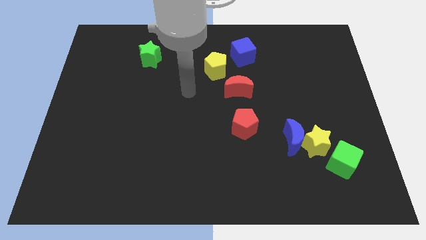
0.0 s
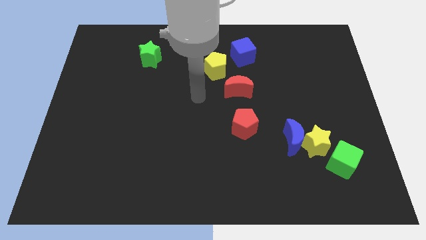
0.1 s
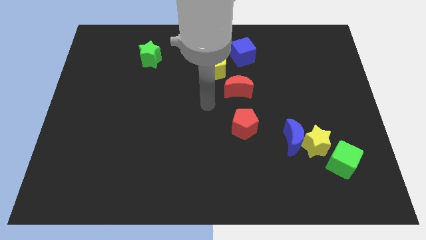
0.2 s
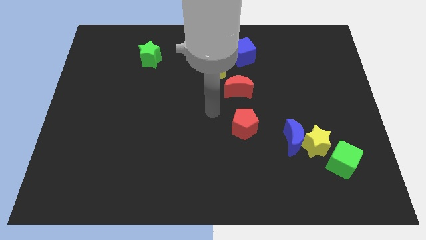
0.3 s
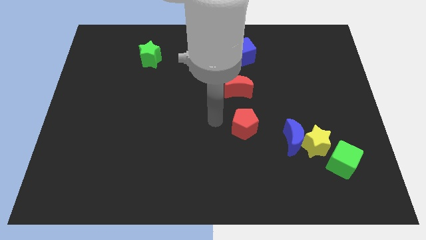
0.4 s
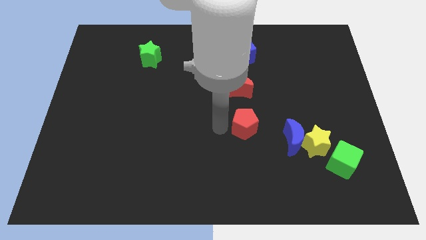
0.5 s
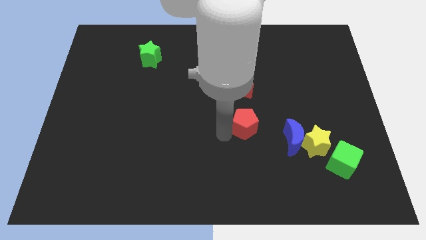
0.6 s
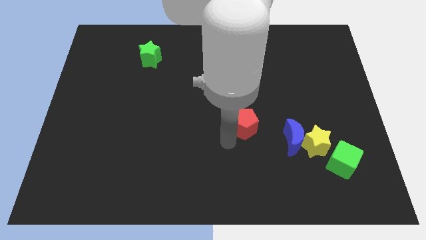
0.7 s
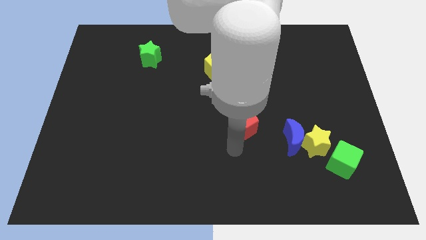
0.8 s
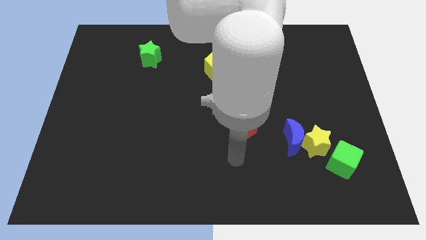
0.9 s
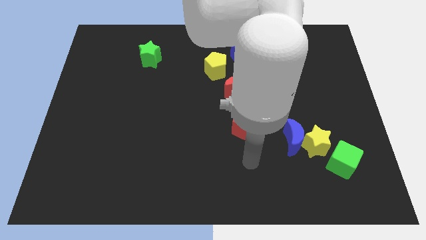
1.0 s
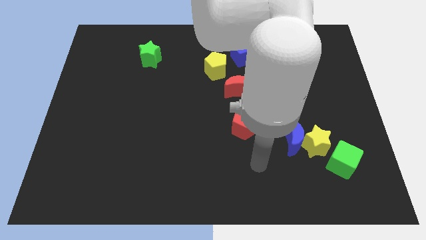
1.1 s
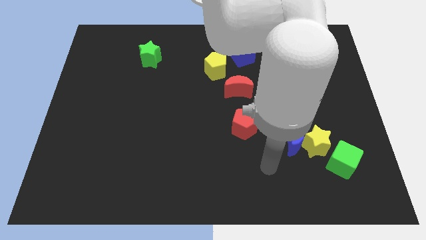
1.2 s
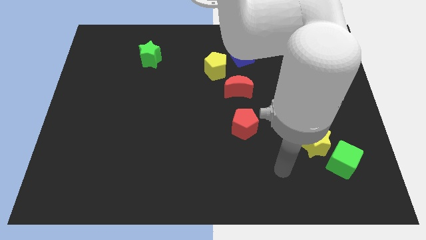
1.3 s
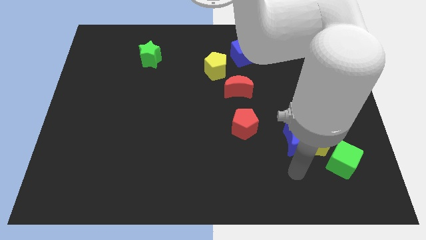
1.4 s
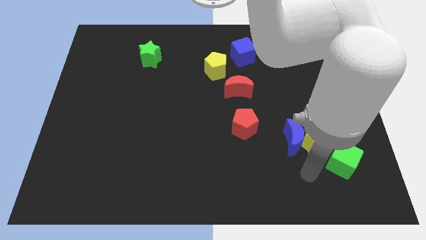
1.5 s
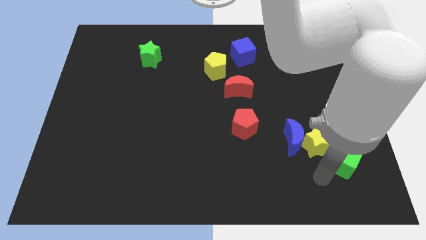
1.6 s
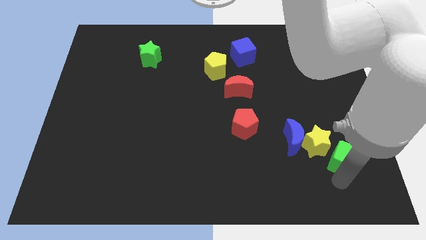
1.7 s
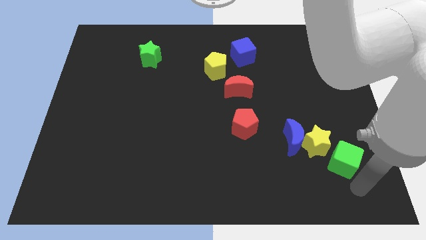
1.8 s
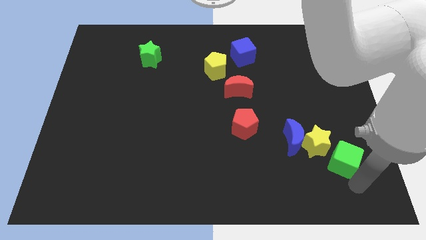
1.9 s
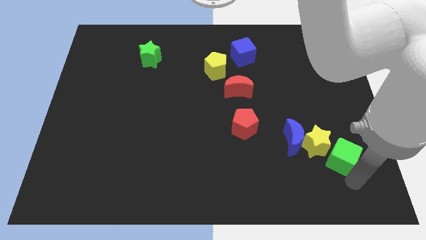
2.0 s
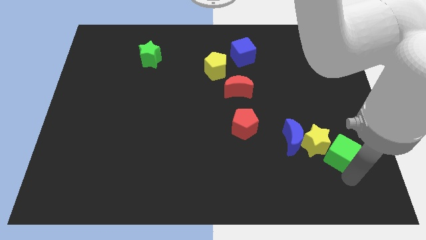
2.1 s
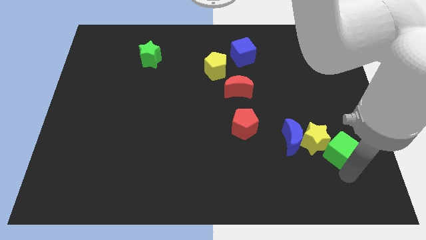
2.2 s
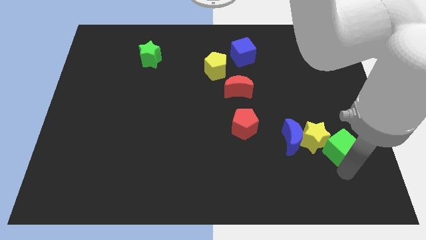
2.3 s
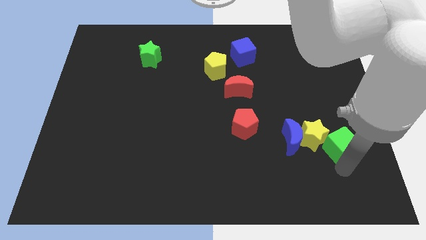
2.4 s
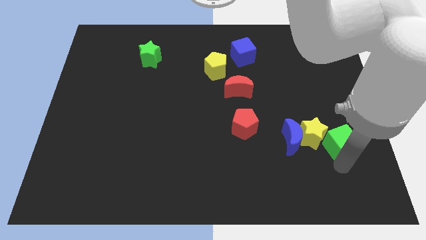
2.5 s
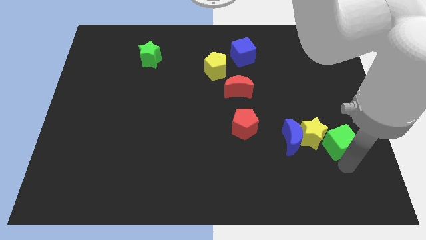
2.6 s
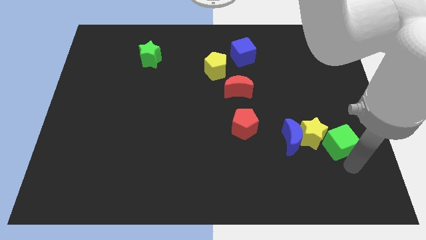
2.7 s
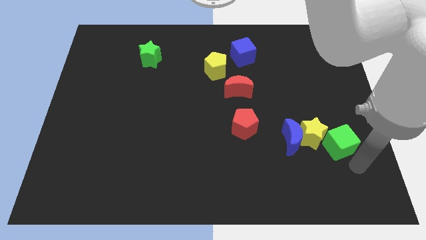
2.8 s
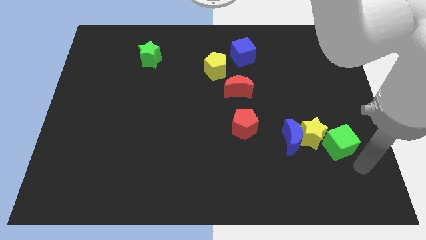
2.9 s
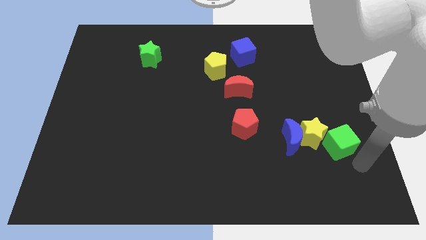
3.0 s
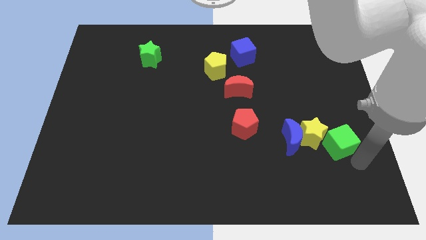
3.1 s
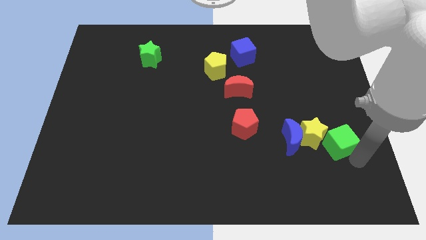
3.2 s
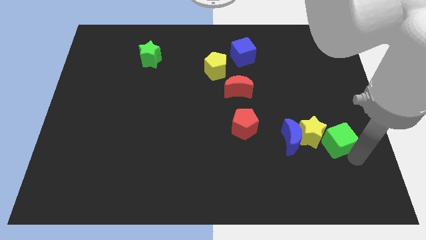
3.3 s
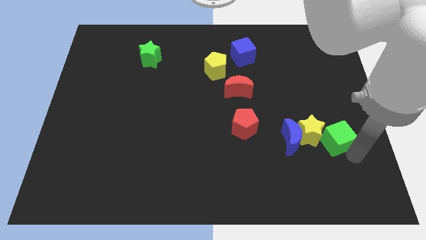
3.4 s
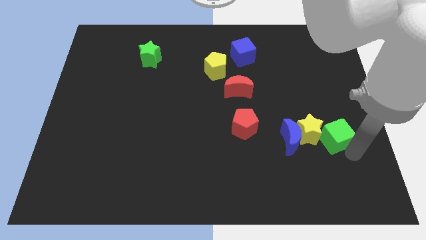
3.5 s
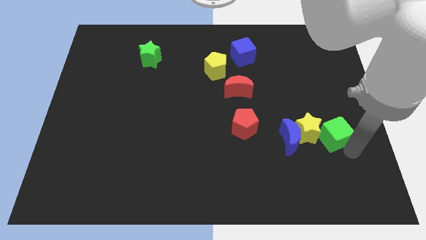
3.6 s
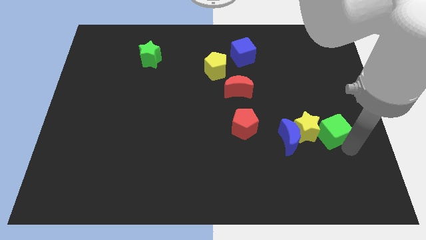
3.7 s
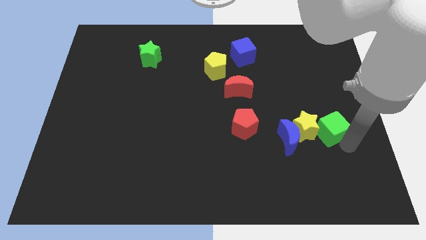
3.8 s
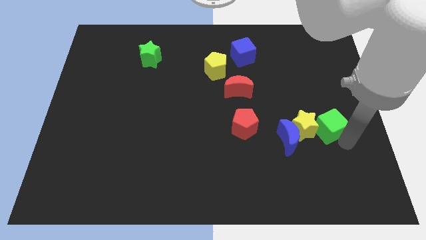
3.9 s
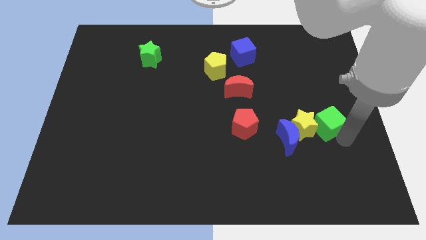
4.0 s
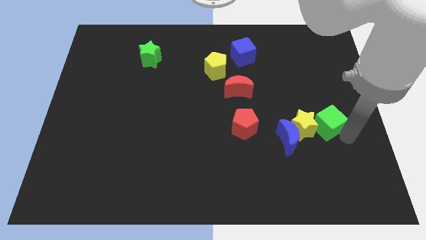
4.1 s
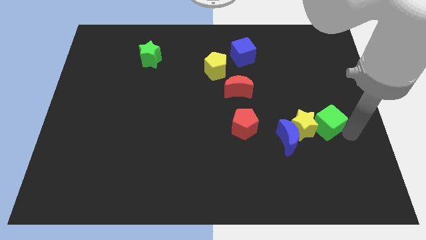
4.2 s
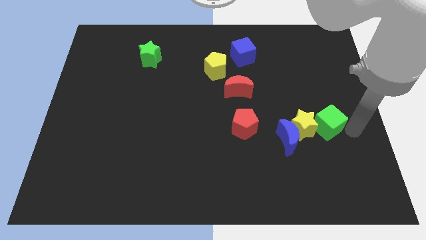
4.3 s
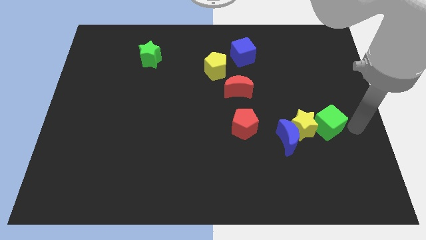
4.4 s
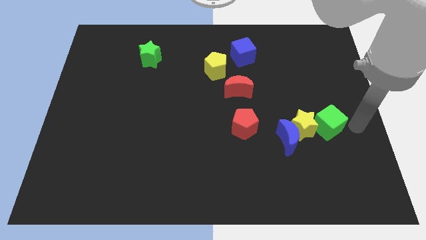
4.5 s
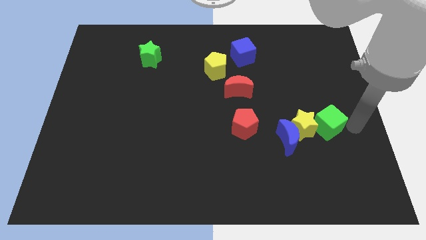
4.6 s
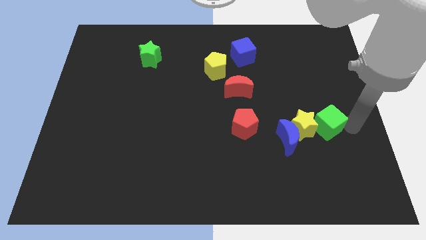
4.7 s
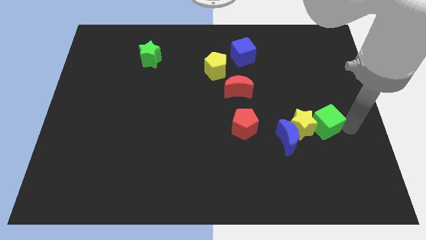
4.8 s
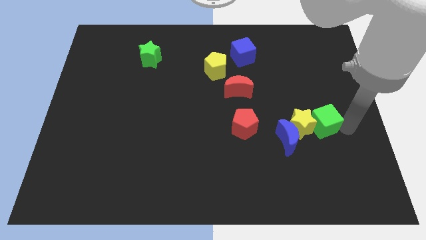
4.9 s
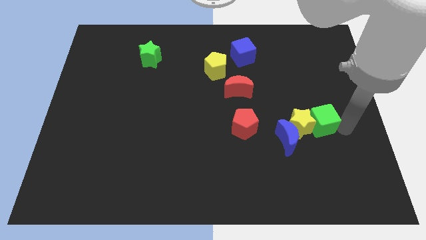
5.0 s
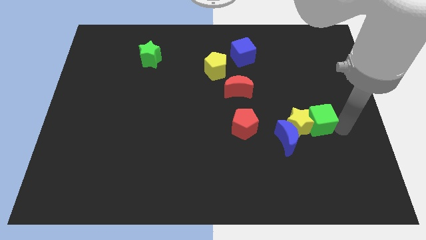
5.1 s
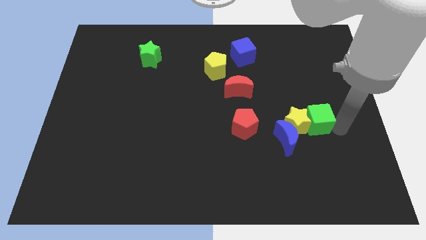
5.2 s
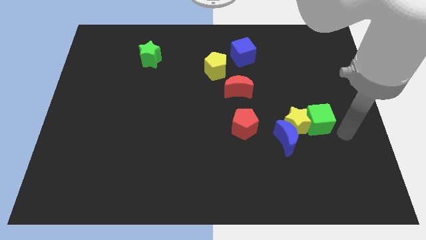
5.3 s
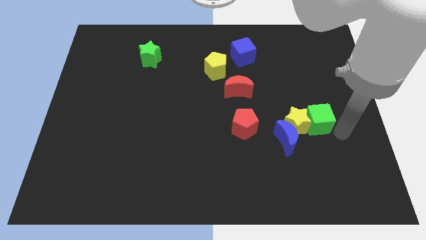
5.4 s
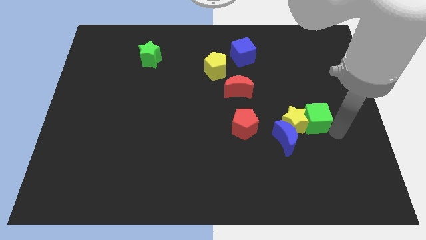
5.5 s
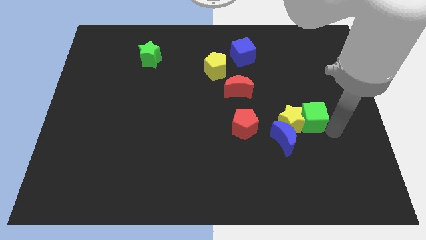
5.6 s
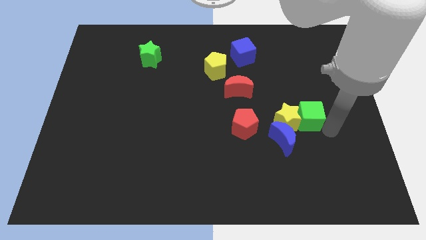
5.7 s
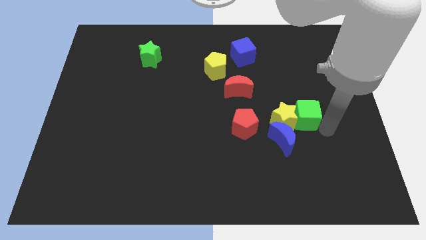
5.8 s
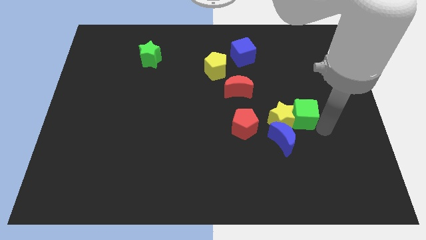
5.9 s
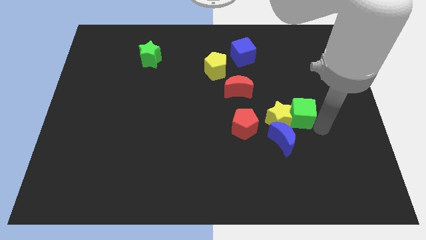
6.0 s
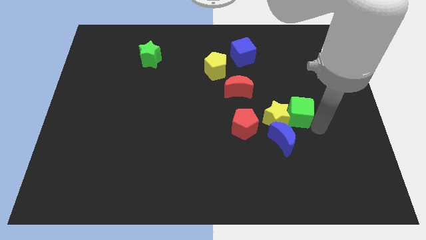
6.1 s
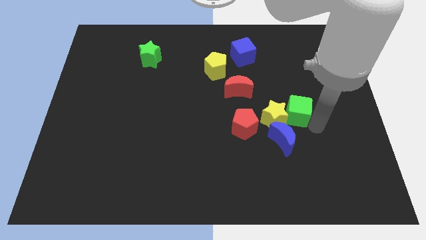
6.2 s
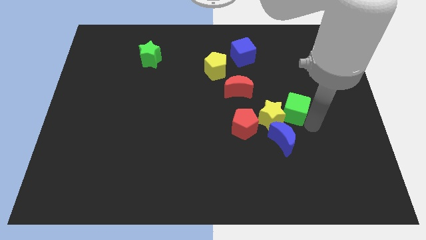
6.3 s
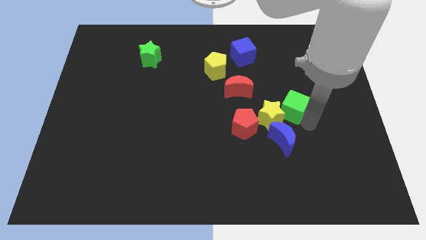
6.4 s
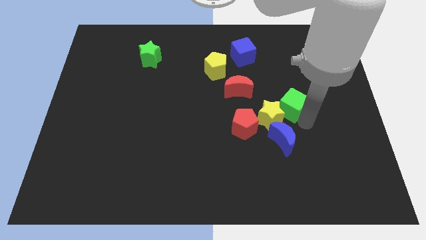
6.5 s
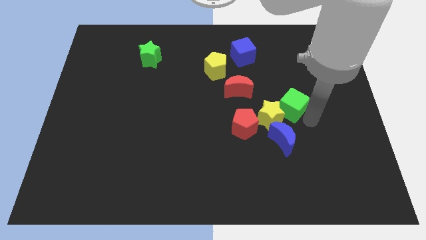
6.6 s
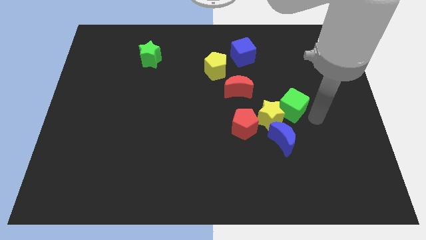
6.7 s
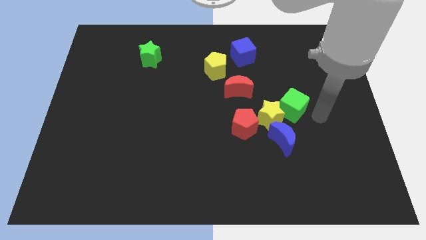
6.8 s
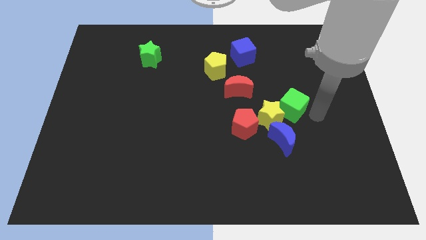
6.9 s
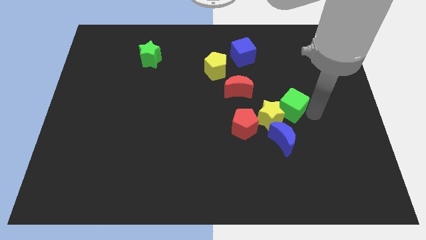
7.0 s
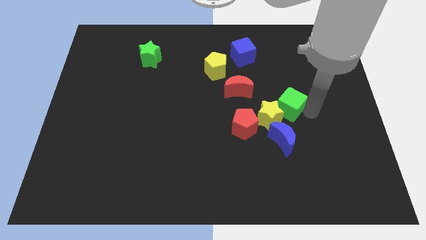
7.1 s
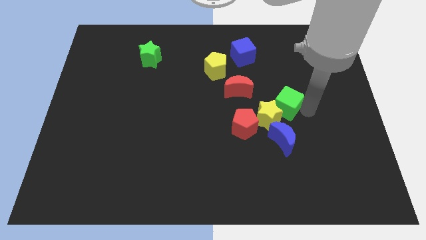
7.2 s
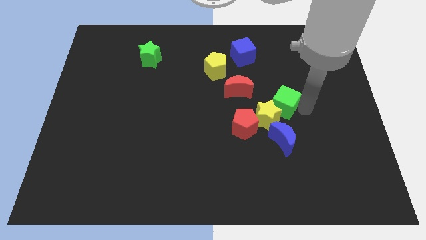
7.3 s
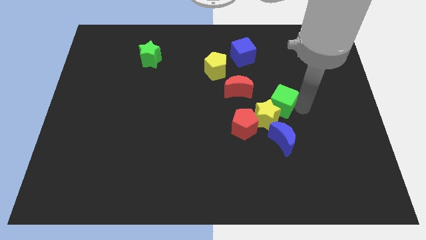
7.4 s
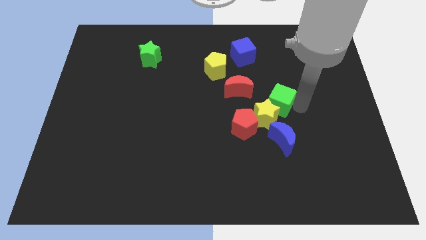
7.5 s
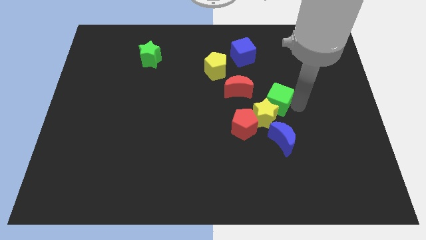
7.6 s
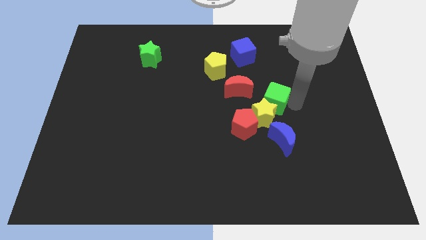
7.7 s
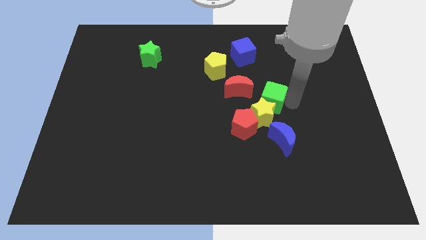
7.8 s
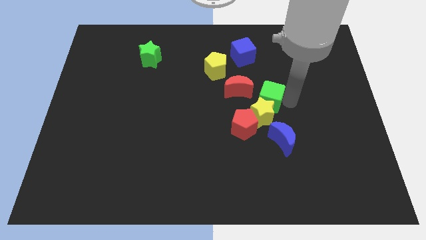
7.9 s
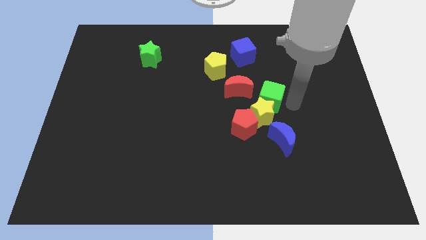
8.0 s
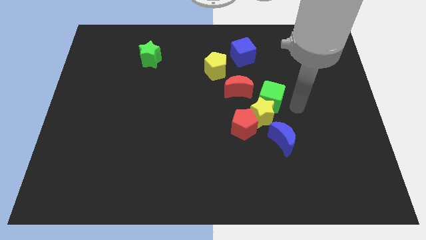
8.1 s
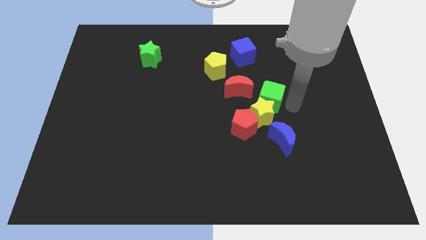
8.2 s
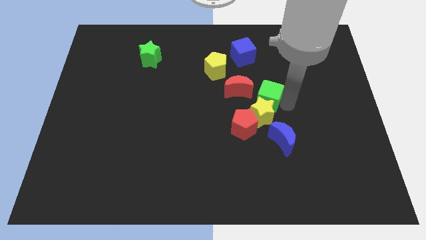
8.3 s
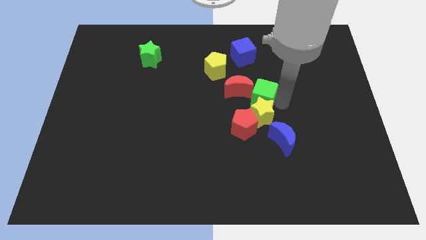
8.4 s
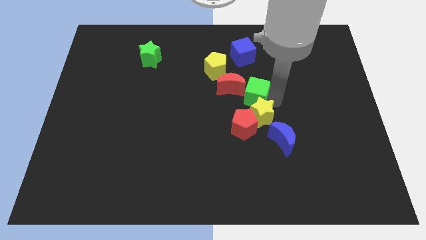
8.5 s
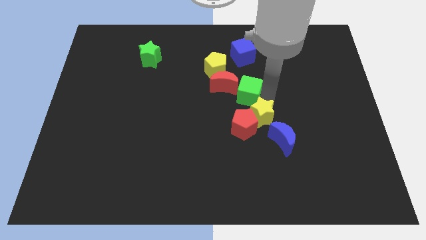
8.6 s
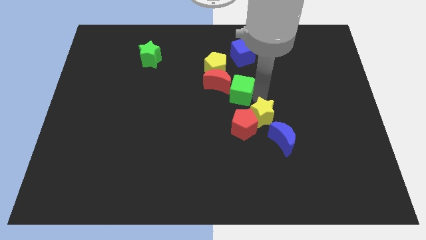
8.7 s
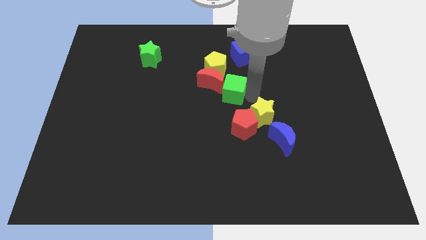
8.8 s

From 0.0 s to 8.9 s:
push the green cube next to the red moon
